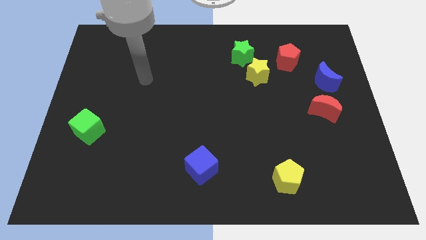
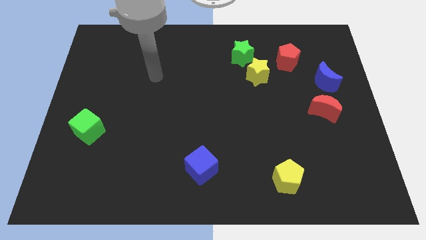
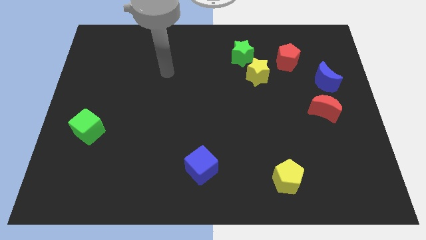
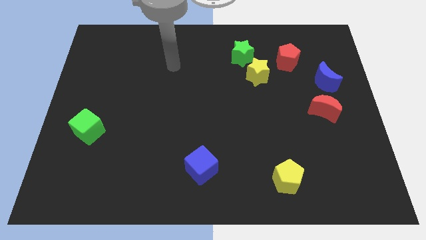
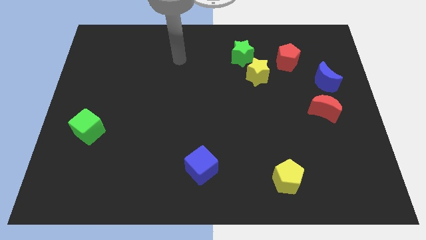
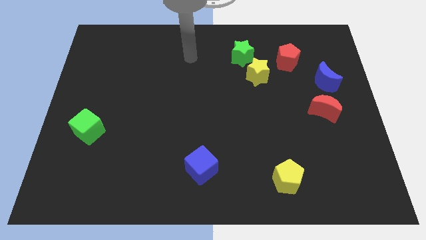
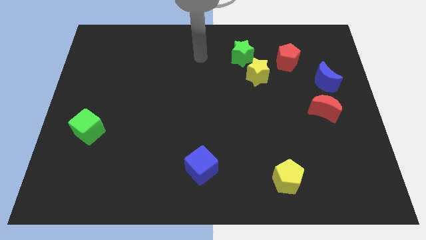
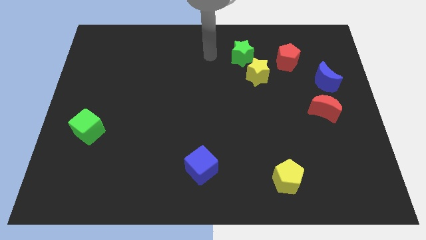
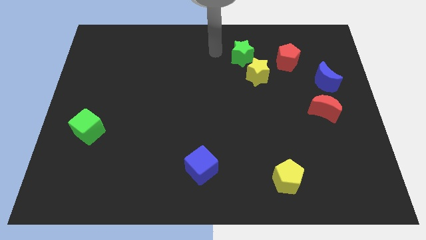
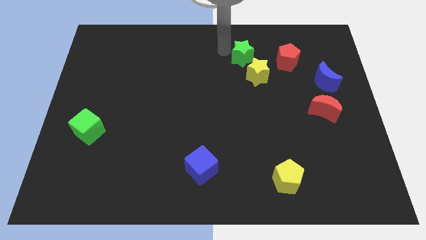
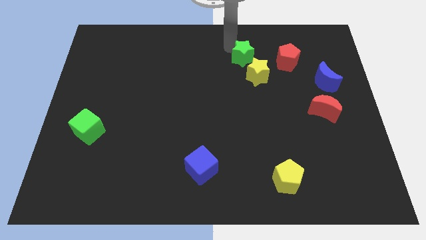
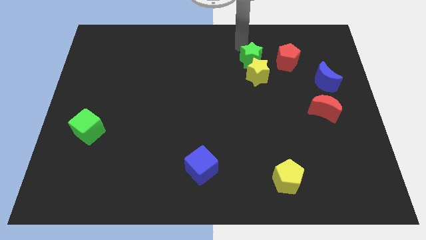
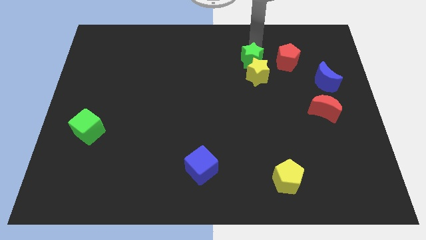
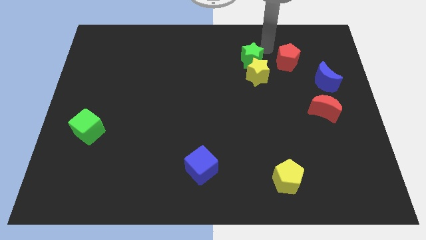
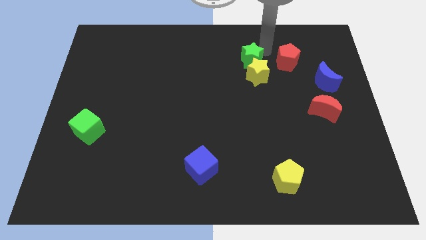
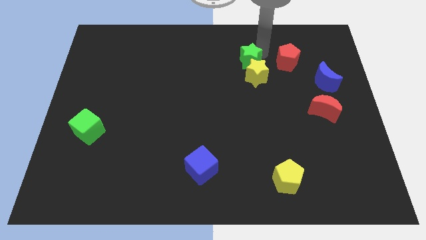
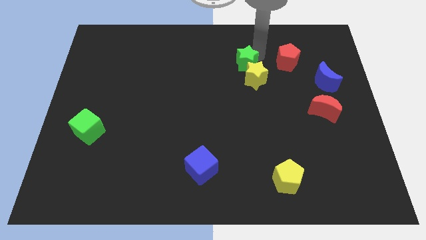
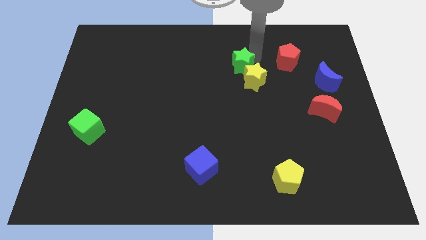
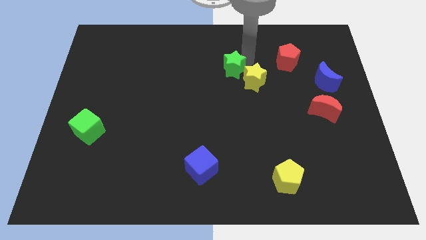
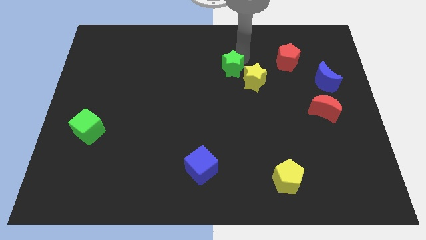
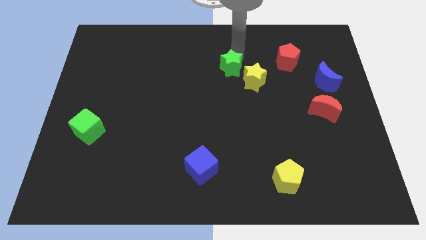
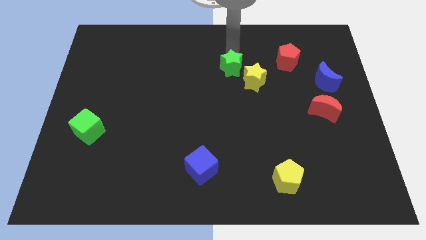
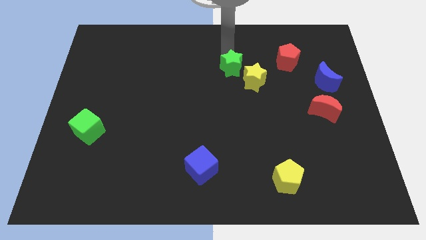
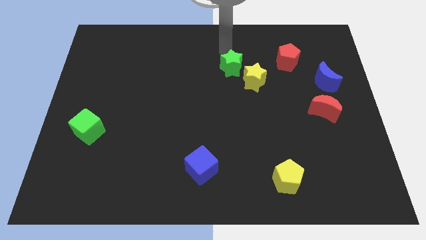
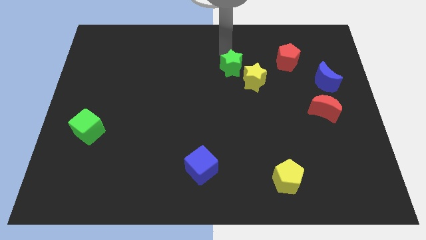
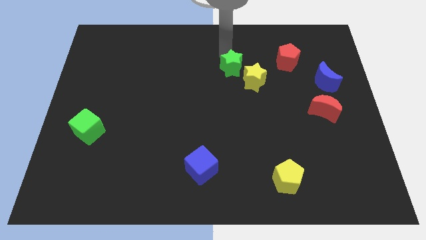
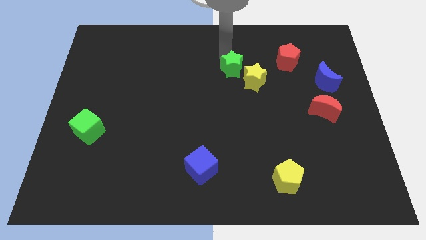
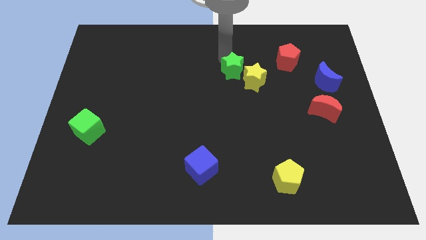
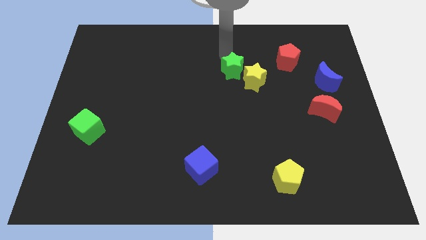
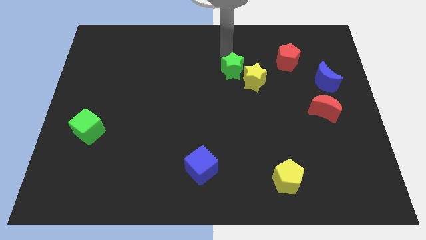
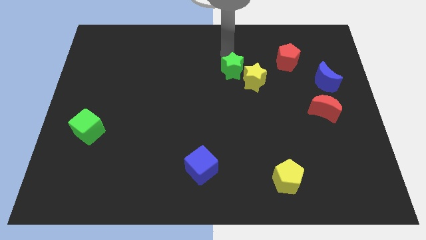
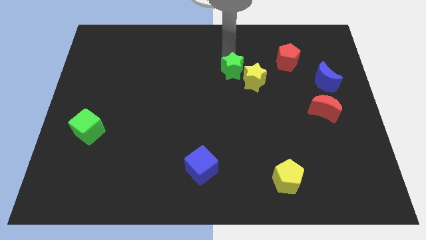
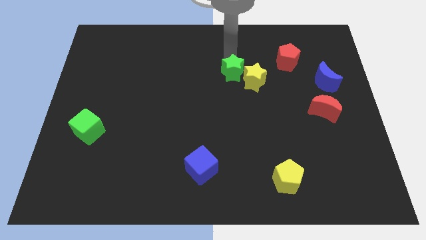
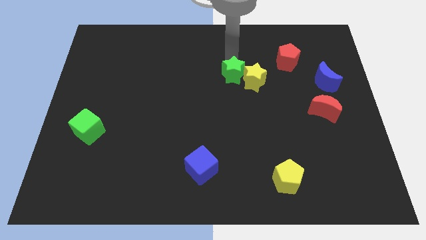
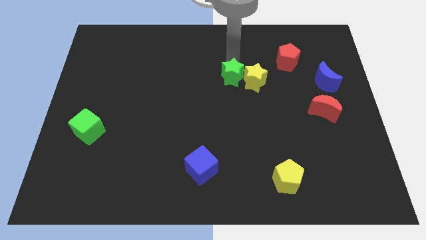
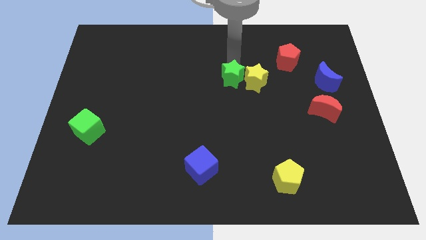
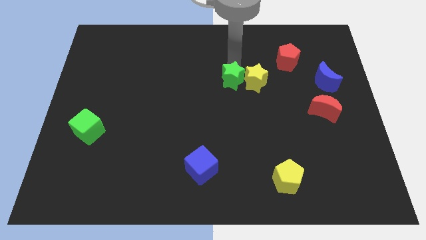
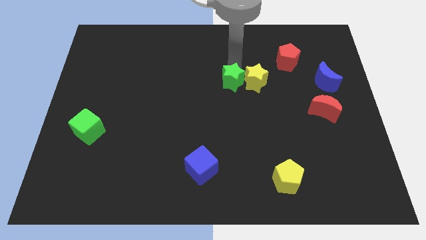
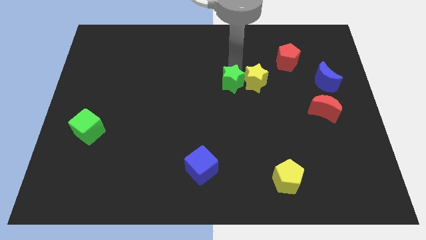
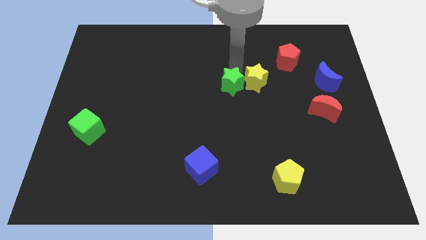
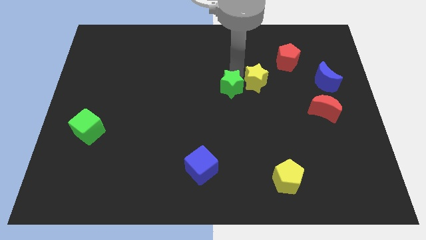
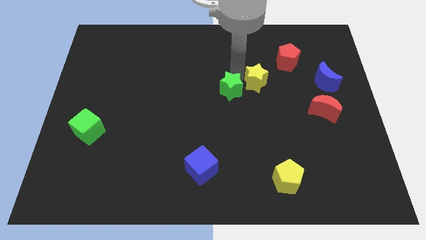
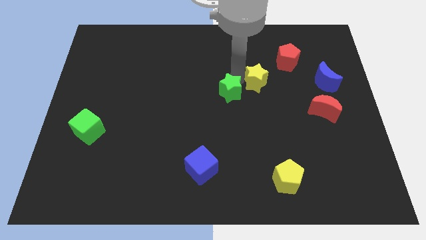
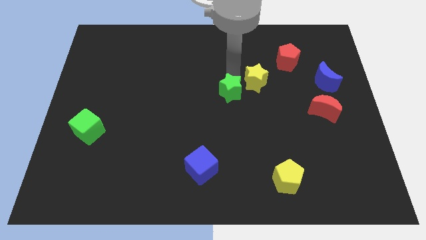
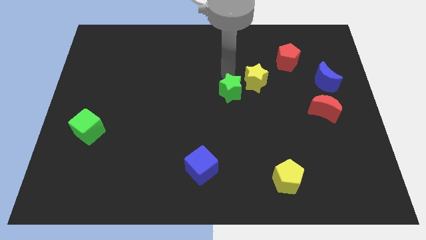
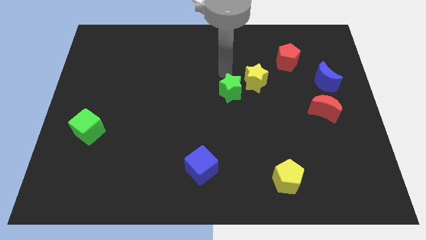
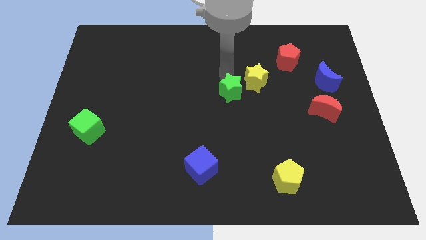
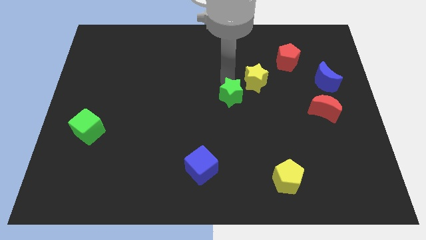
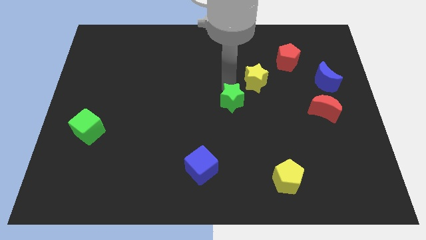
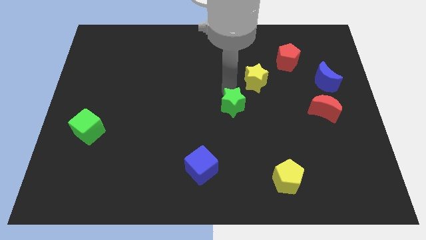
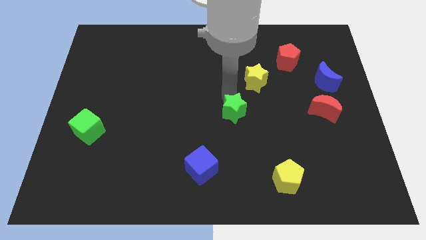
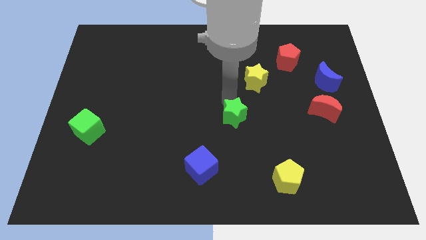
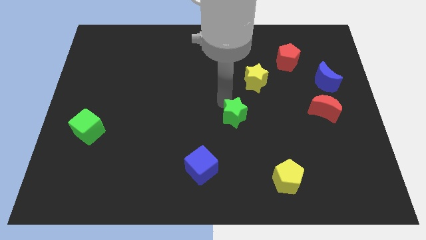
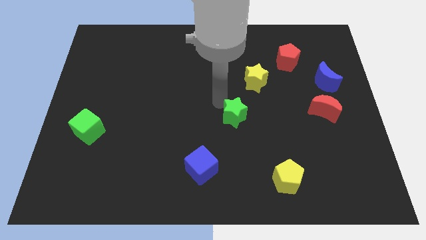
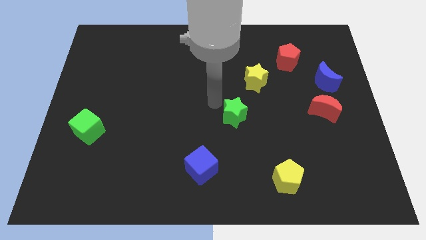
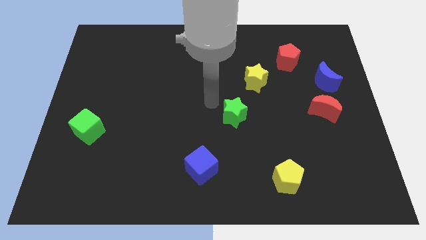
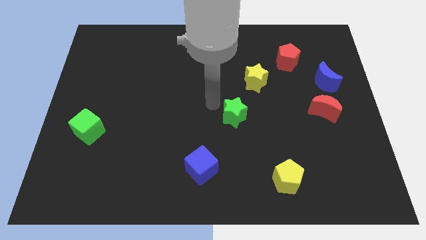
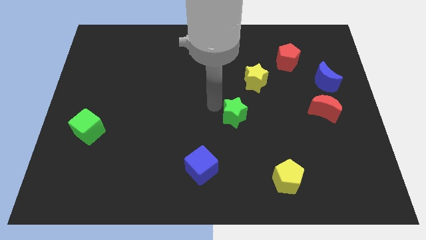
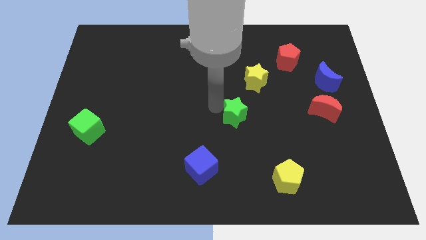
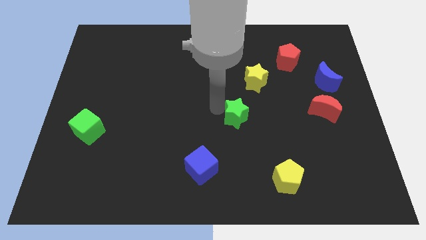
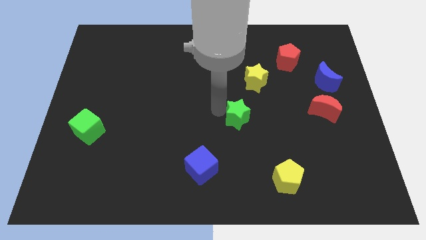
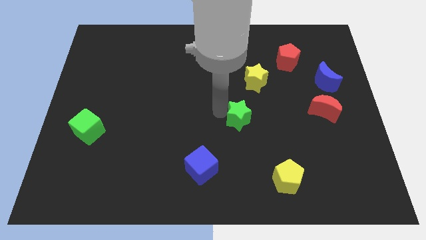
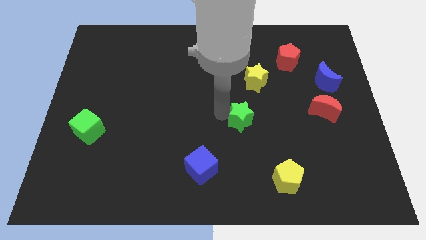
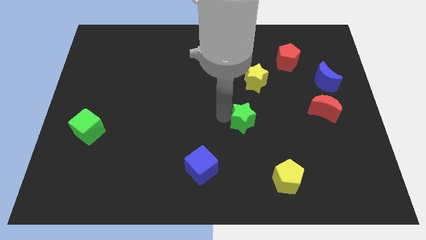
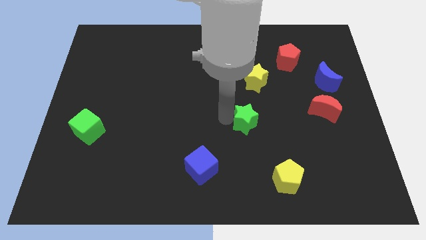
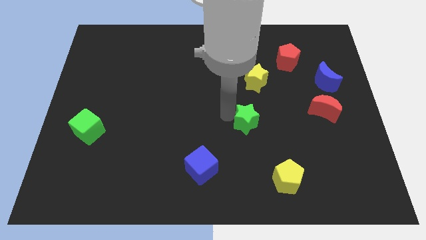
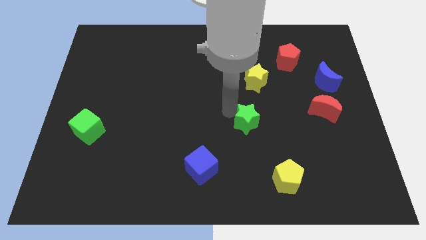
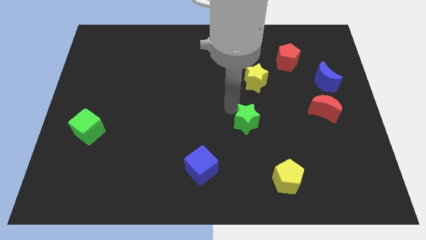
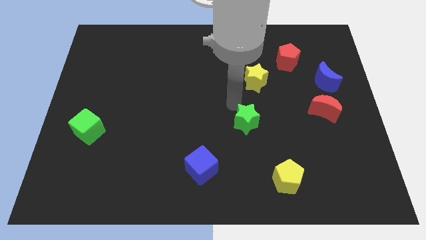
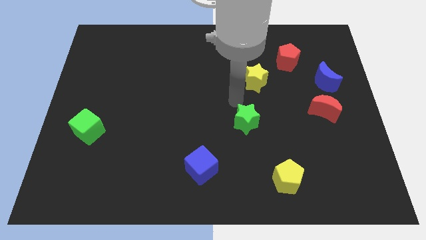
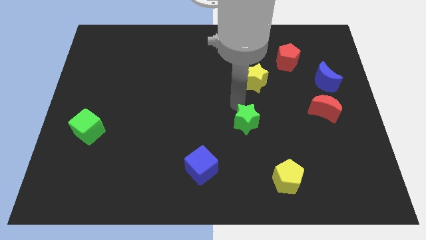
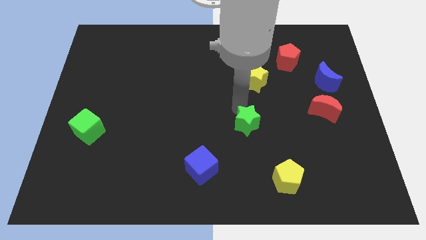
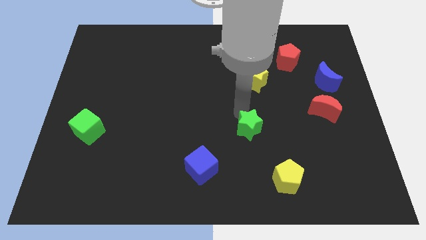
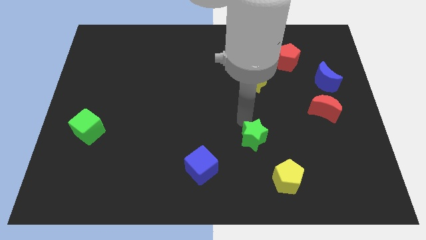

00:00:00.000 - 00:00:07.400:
slide the green star diagonally up and to the left of the yellow pentagon

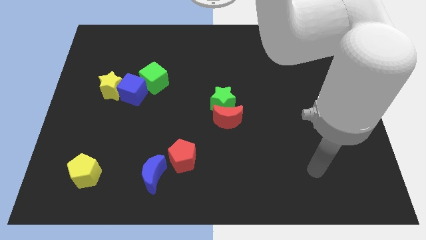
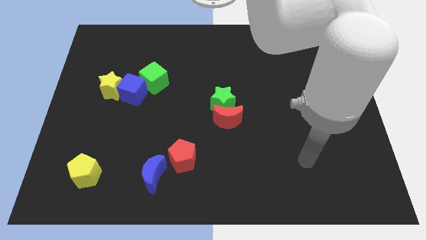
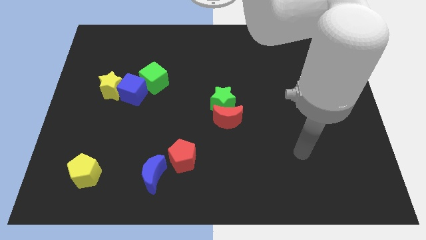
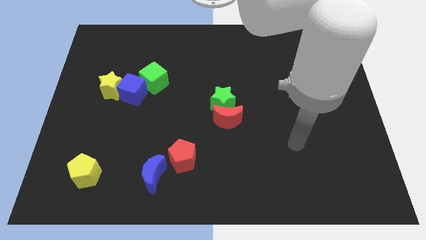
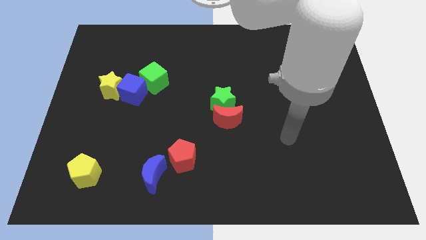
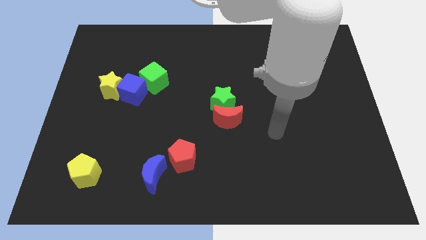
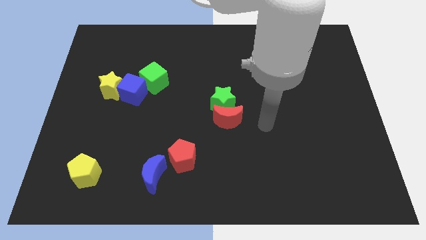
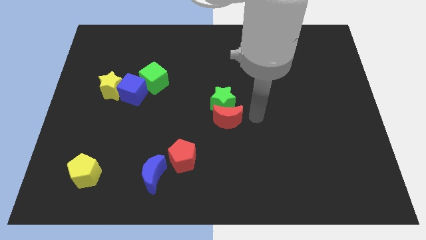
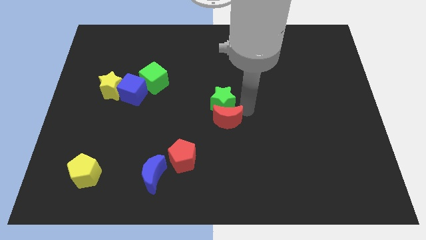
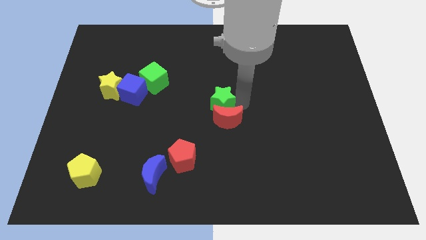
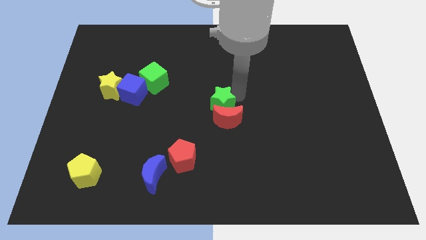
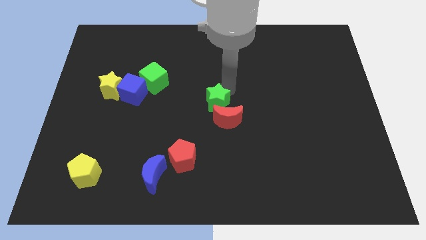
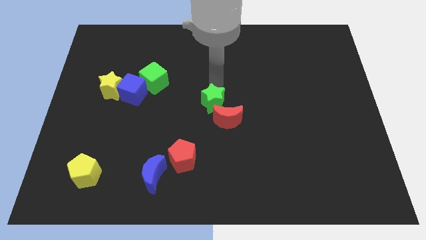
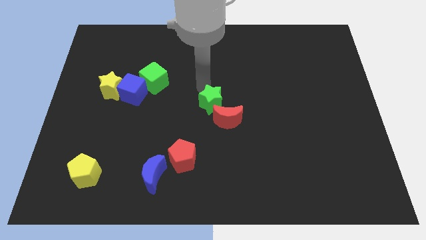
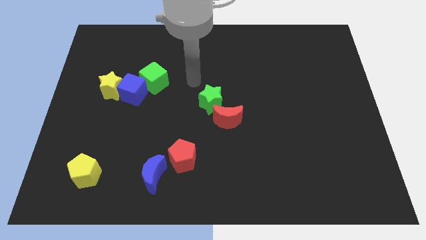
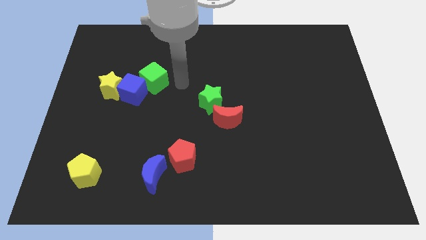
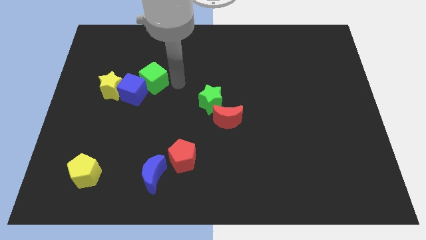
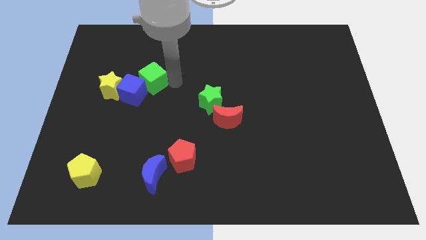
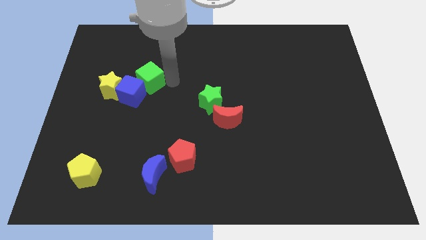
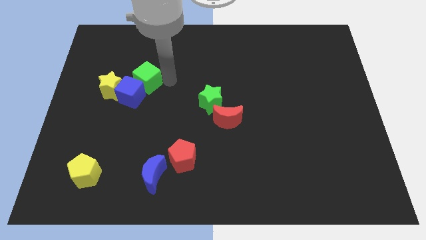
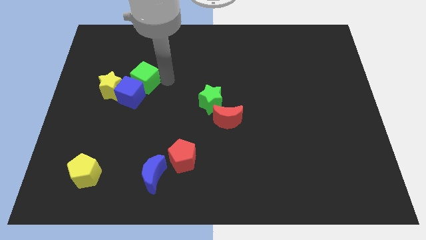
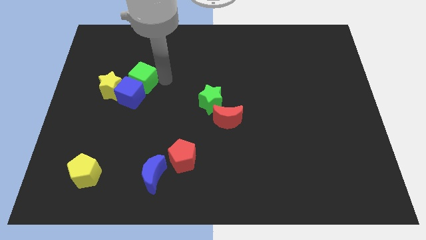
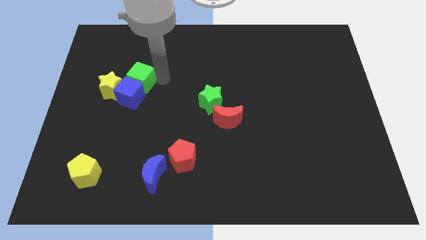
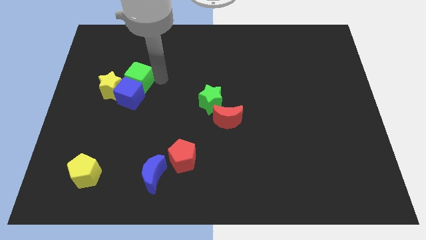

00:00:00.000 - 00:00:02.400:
put the green cube to the top left side of the blue cube
